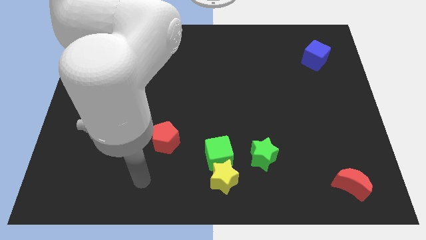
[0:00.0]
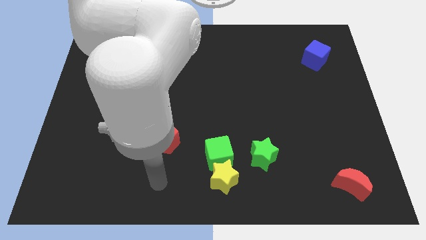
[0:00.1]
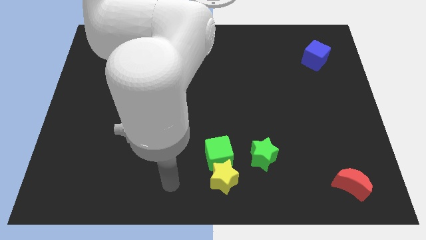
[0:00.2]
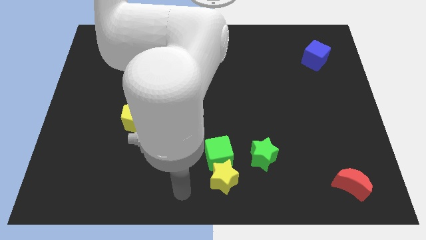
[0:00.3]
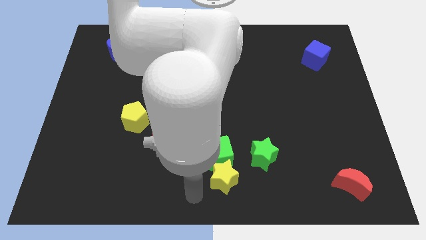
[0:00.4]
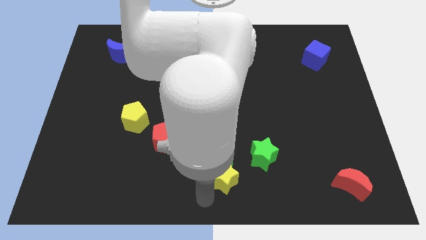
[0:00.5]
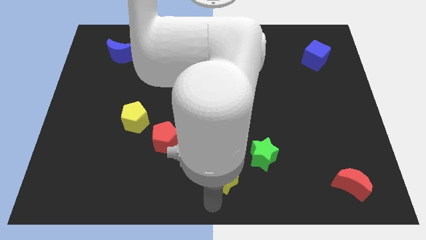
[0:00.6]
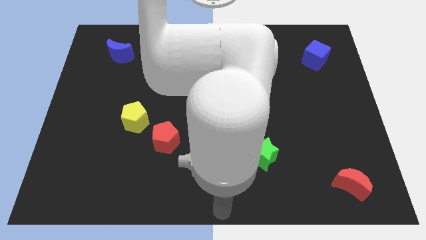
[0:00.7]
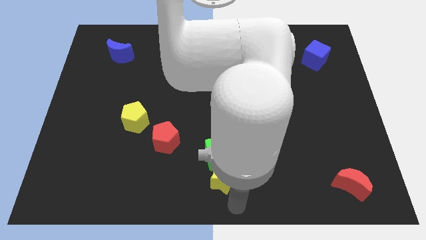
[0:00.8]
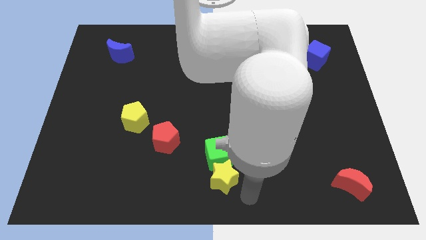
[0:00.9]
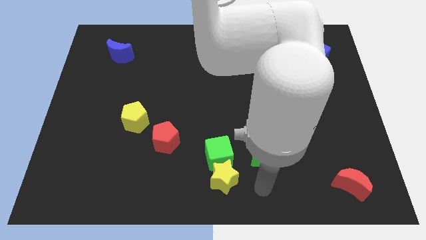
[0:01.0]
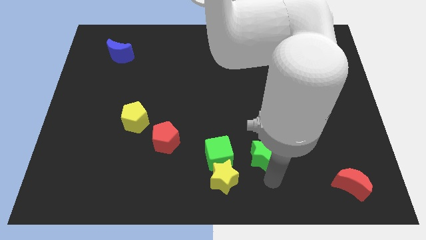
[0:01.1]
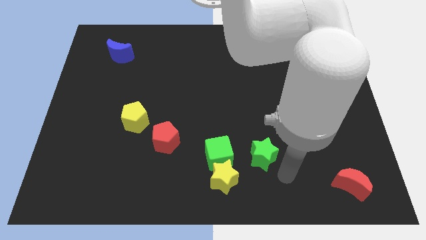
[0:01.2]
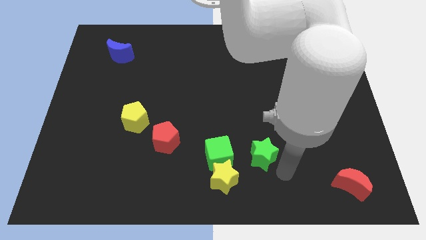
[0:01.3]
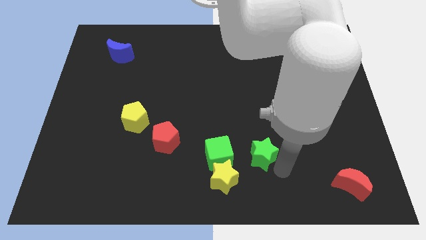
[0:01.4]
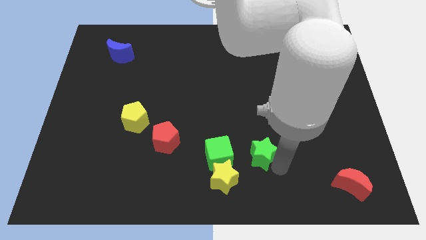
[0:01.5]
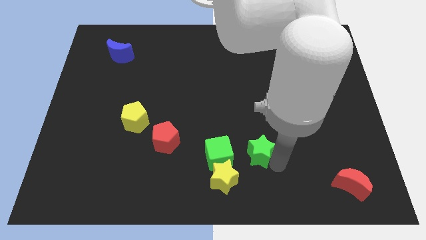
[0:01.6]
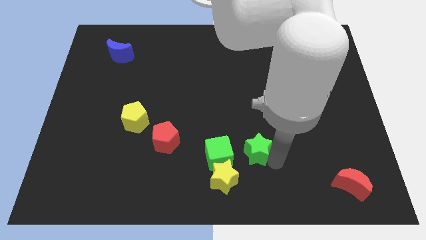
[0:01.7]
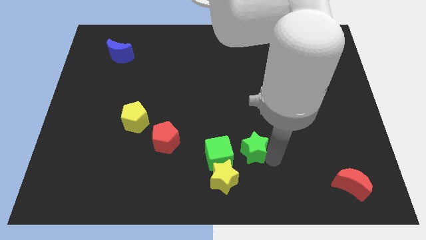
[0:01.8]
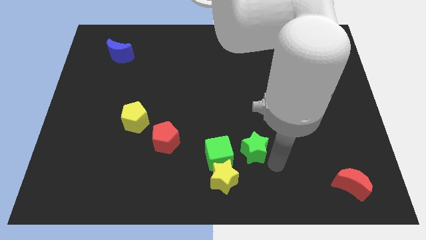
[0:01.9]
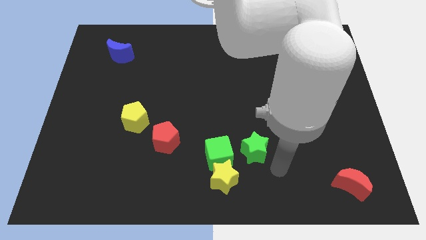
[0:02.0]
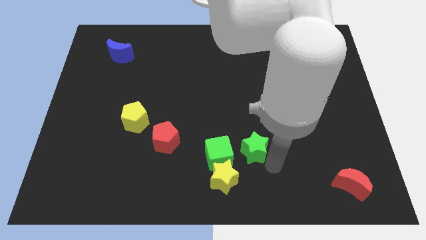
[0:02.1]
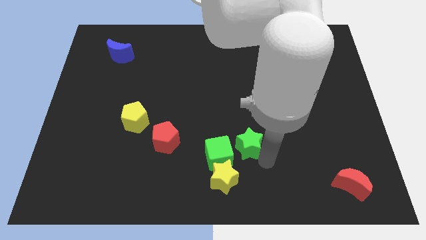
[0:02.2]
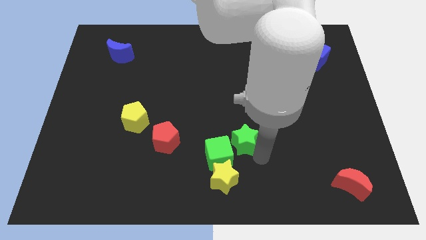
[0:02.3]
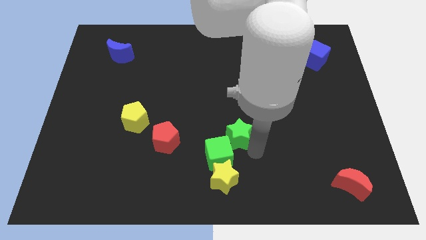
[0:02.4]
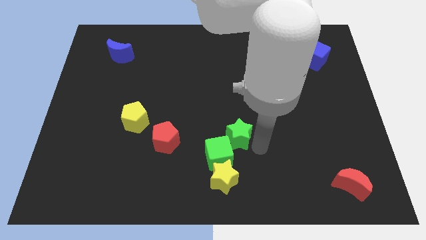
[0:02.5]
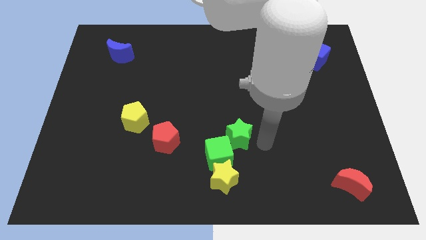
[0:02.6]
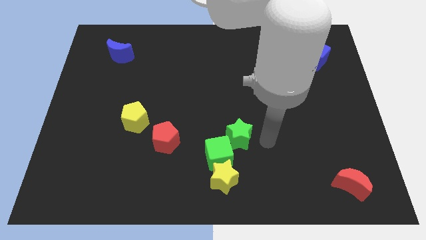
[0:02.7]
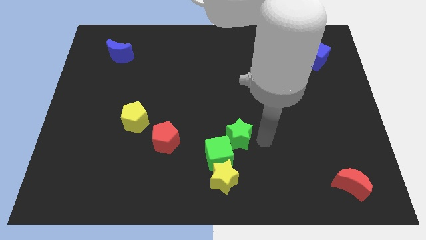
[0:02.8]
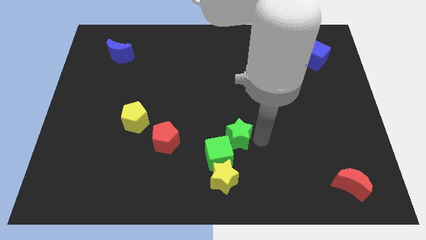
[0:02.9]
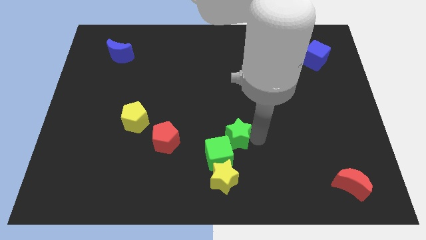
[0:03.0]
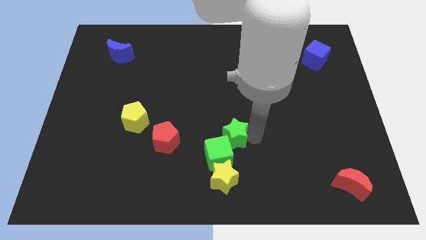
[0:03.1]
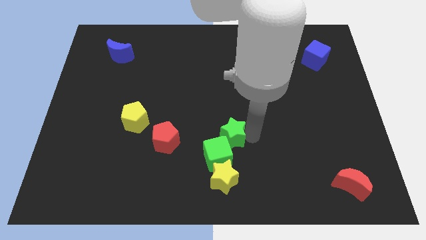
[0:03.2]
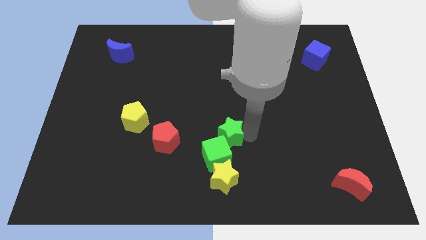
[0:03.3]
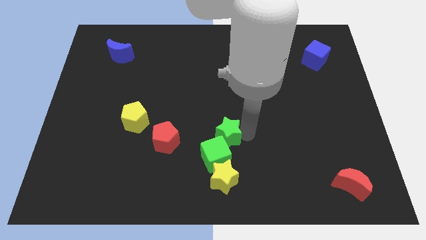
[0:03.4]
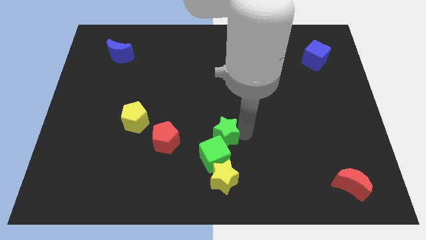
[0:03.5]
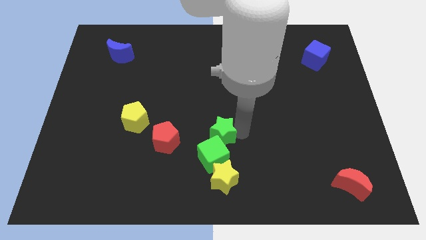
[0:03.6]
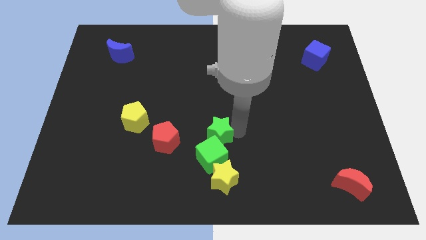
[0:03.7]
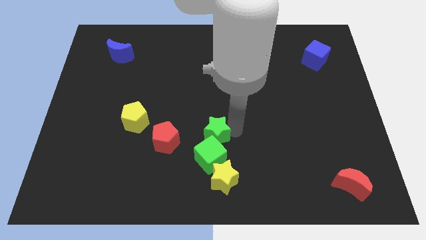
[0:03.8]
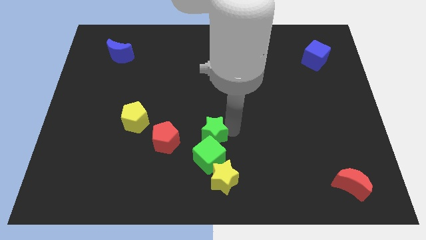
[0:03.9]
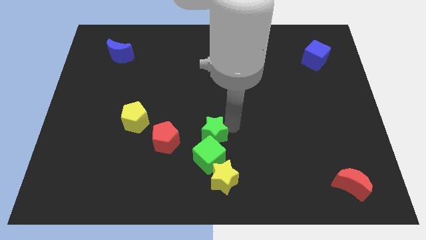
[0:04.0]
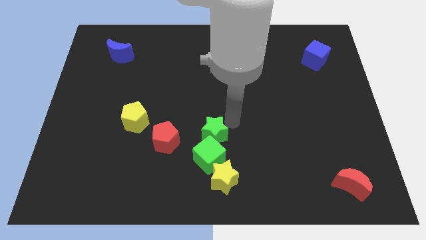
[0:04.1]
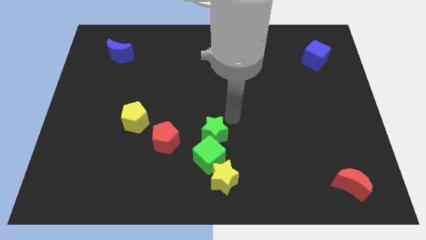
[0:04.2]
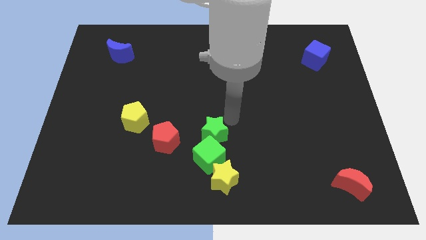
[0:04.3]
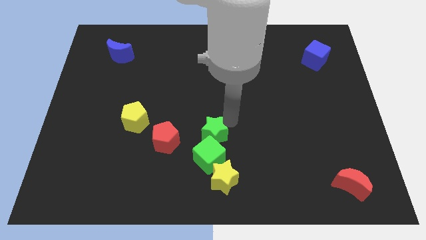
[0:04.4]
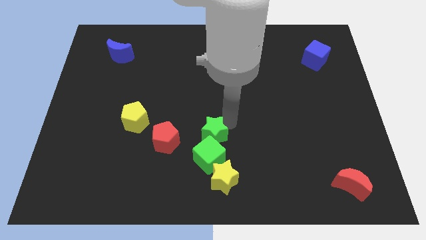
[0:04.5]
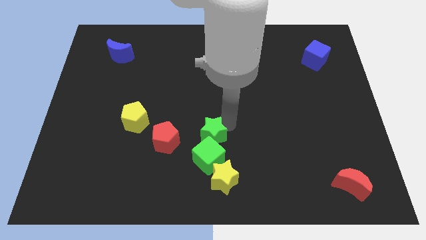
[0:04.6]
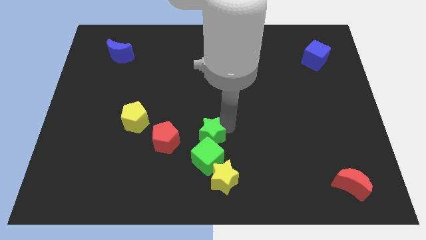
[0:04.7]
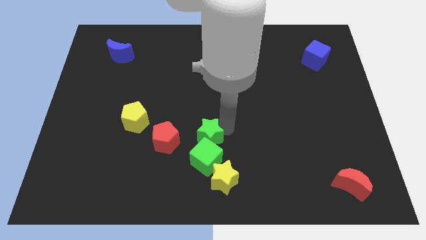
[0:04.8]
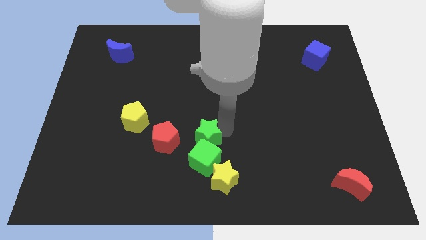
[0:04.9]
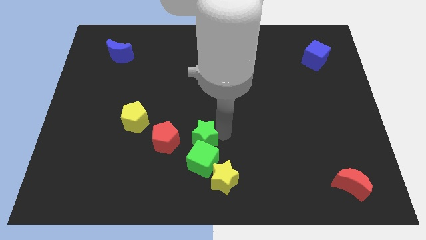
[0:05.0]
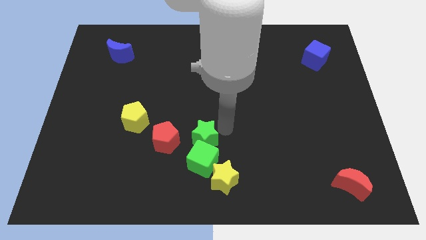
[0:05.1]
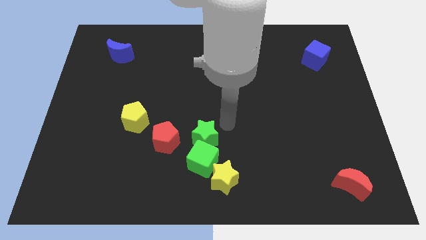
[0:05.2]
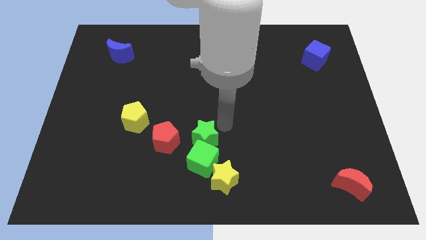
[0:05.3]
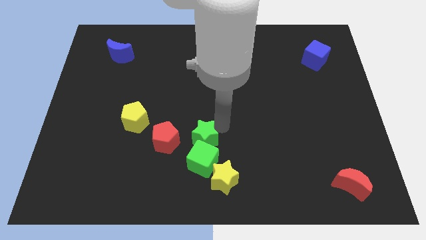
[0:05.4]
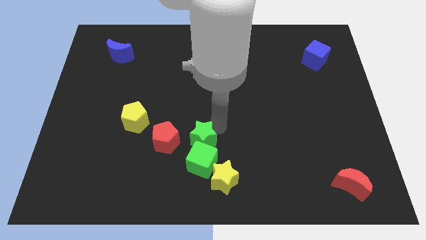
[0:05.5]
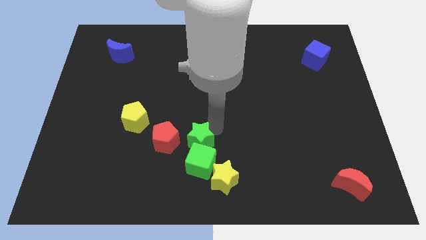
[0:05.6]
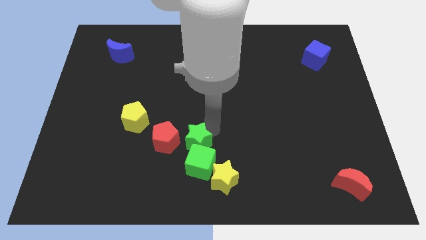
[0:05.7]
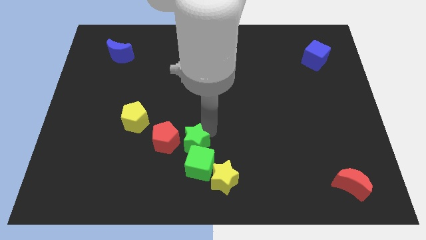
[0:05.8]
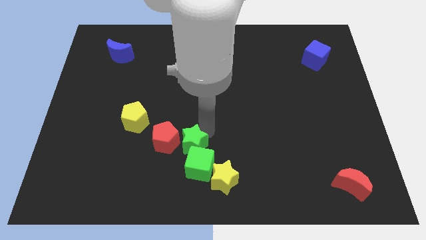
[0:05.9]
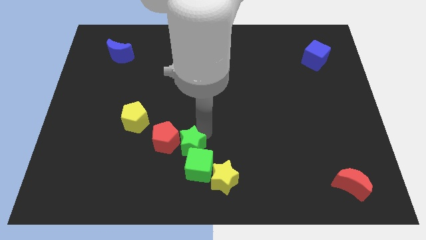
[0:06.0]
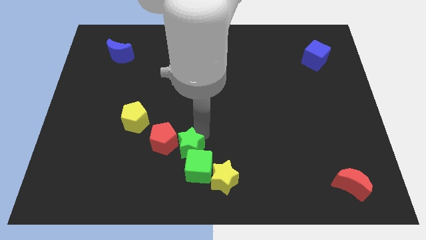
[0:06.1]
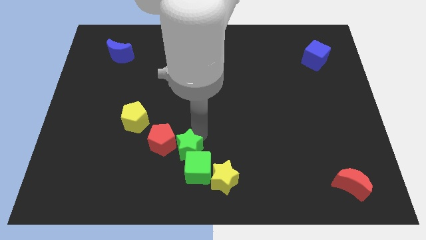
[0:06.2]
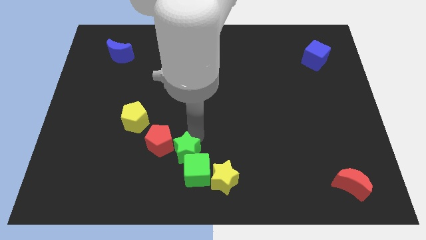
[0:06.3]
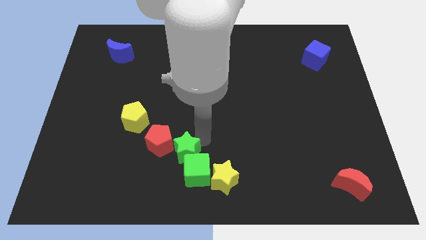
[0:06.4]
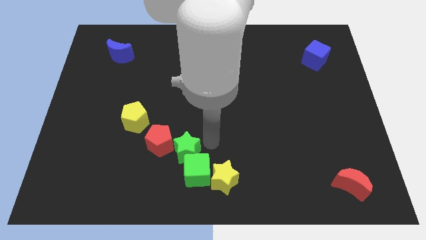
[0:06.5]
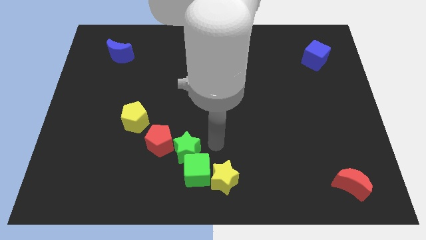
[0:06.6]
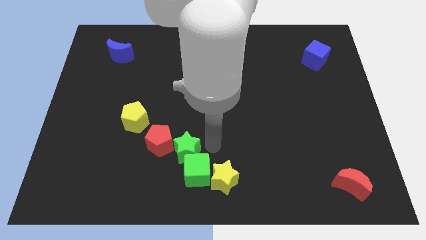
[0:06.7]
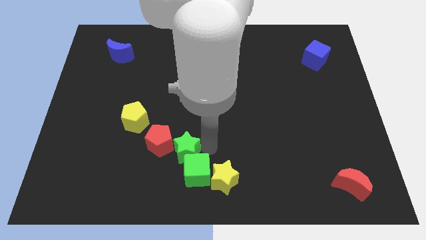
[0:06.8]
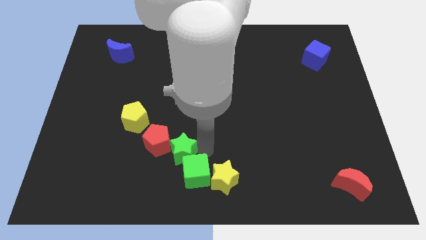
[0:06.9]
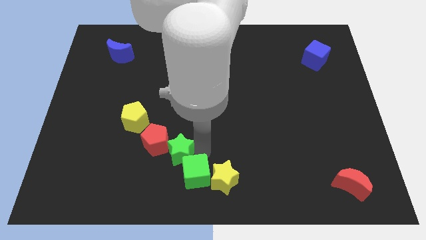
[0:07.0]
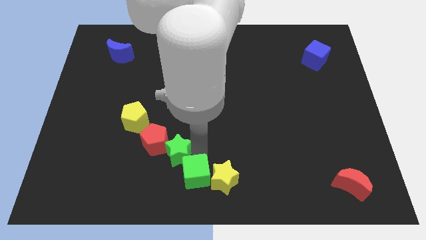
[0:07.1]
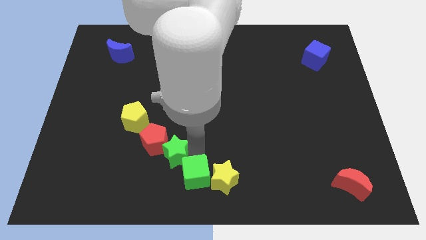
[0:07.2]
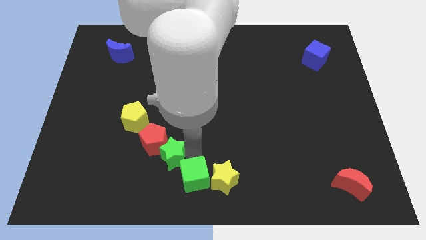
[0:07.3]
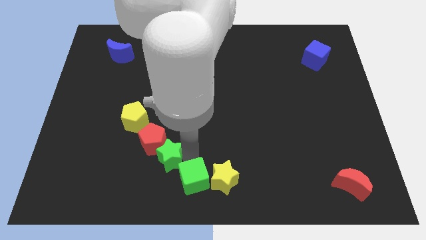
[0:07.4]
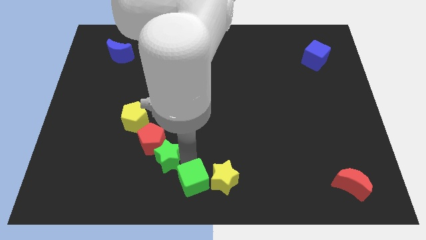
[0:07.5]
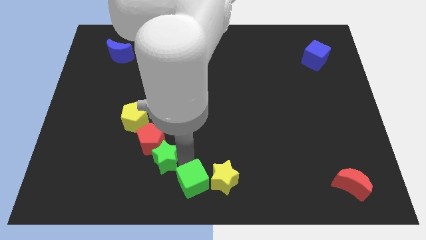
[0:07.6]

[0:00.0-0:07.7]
slide the green star left
